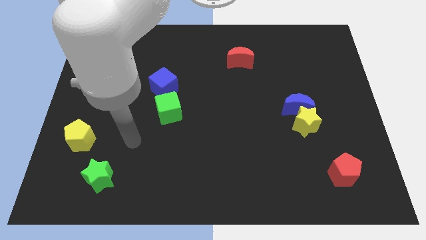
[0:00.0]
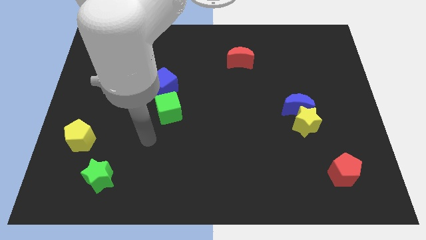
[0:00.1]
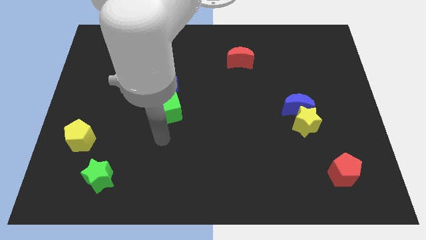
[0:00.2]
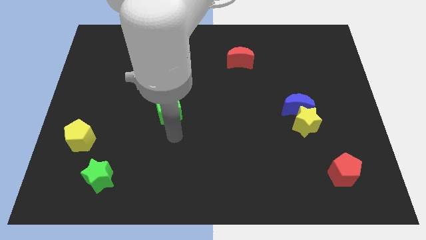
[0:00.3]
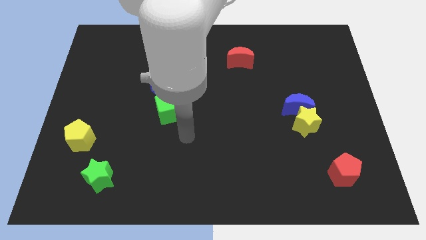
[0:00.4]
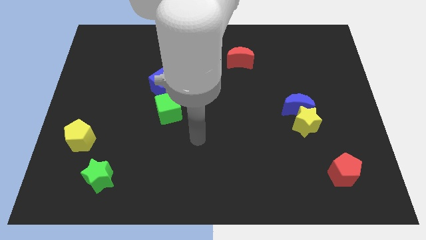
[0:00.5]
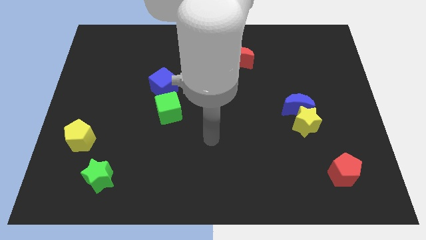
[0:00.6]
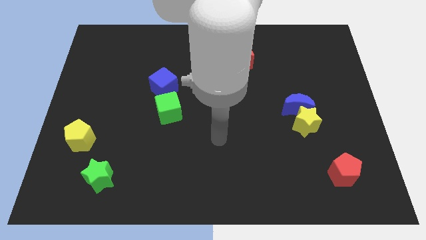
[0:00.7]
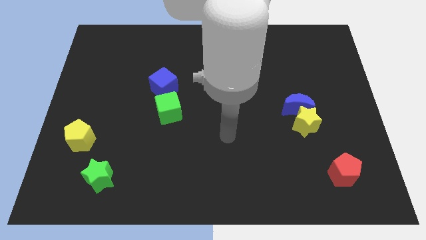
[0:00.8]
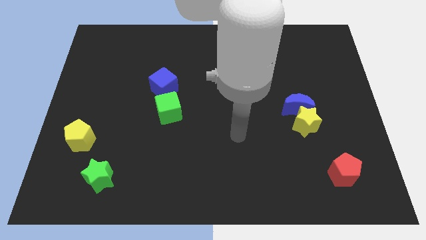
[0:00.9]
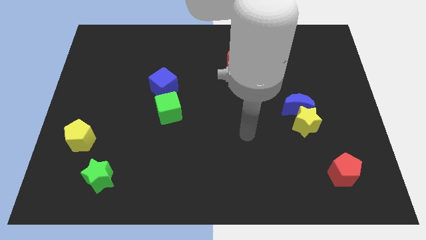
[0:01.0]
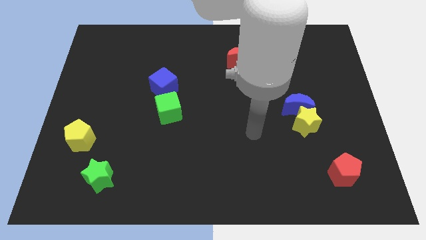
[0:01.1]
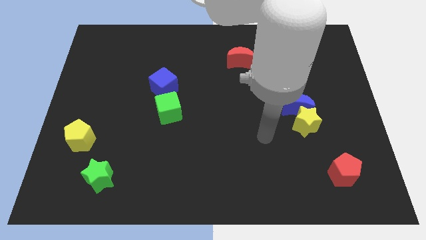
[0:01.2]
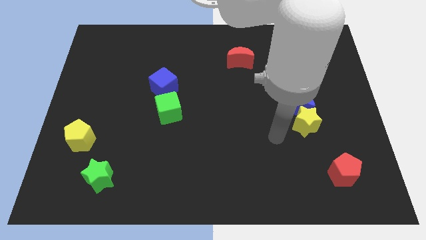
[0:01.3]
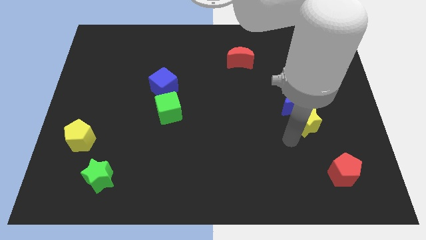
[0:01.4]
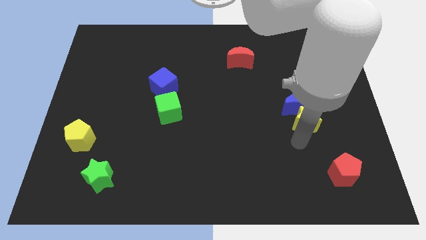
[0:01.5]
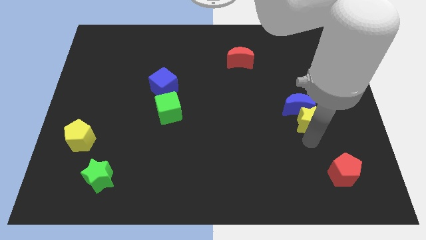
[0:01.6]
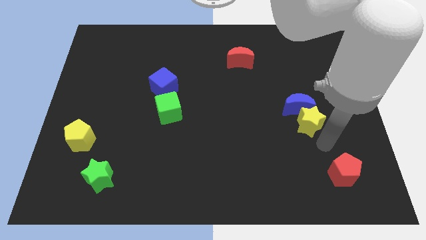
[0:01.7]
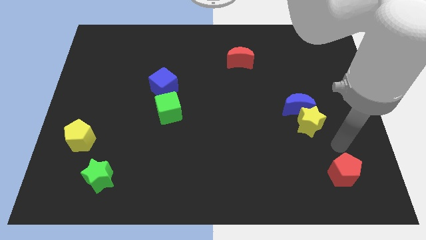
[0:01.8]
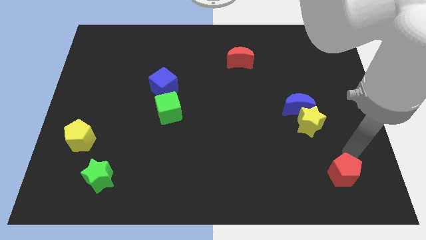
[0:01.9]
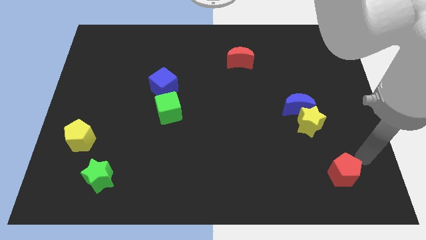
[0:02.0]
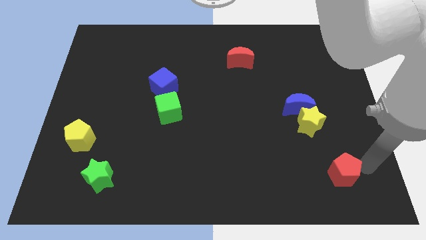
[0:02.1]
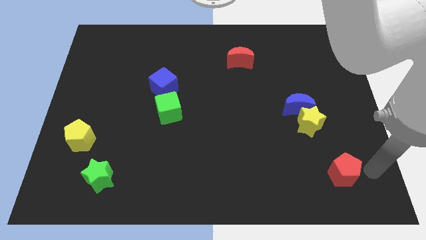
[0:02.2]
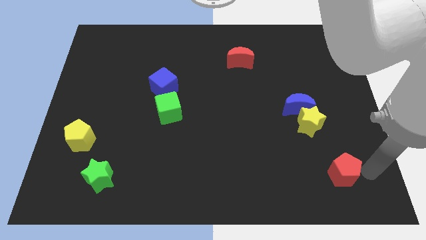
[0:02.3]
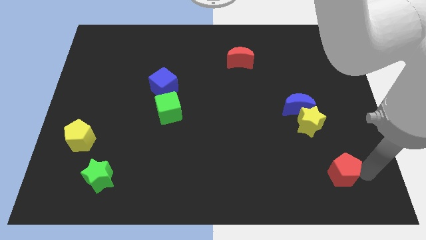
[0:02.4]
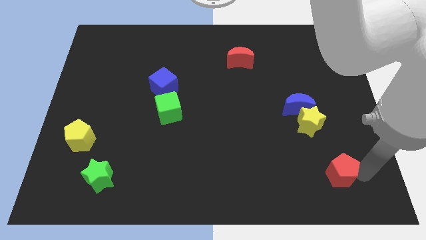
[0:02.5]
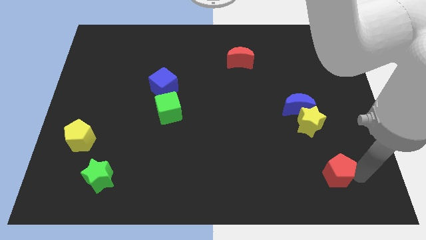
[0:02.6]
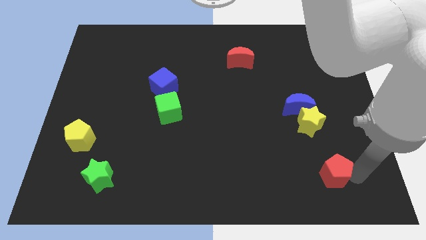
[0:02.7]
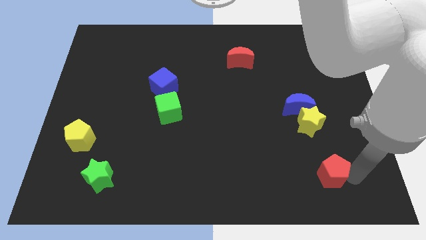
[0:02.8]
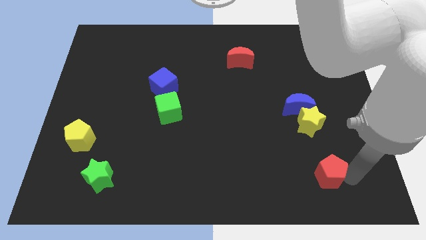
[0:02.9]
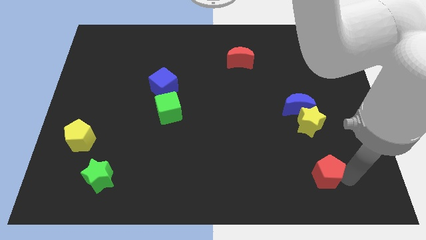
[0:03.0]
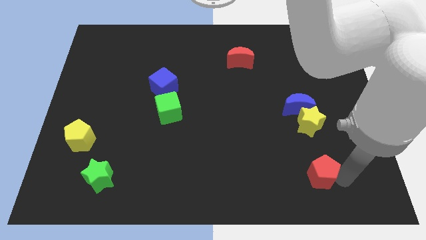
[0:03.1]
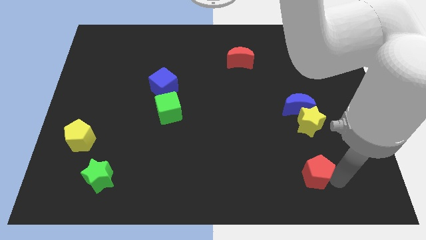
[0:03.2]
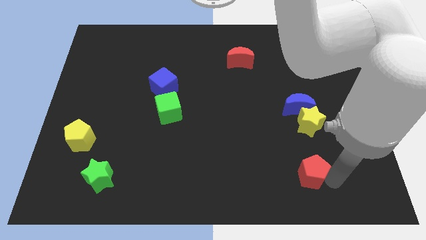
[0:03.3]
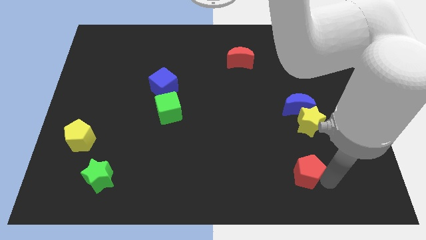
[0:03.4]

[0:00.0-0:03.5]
push the red pentagon a little to the left

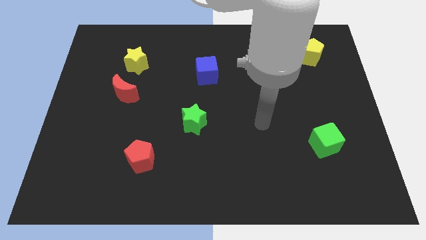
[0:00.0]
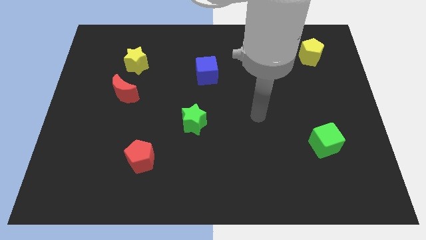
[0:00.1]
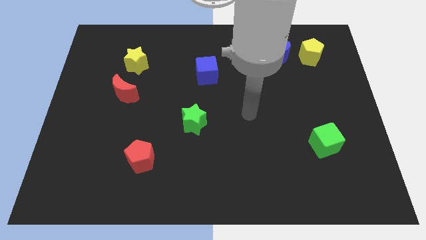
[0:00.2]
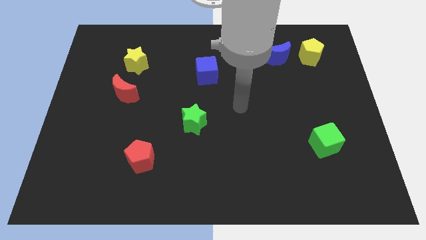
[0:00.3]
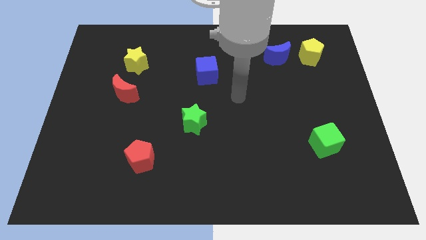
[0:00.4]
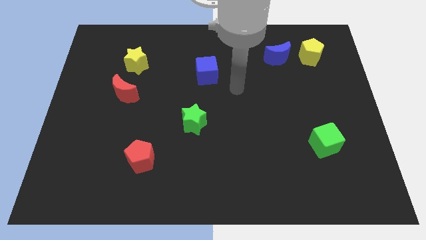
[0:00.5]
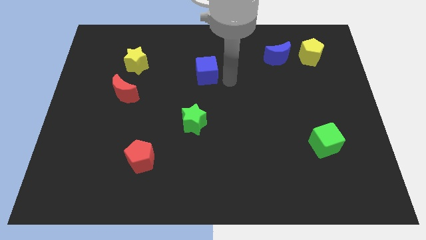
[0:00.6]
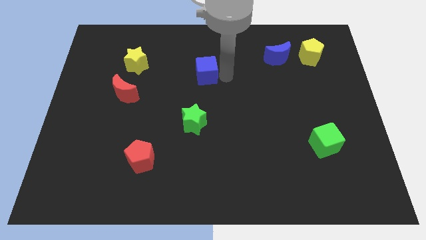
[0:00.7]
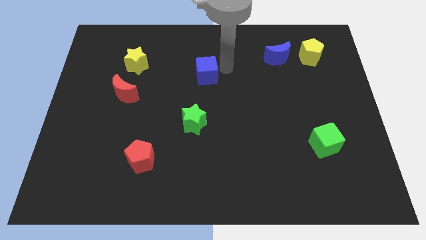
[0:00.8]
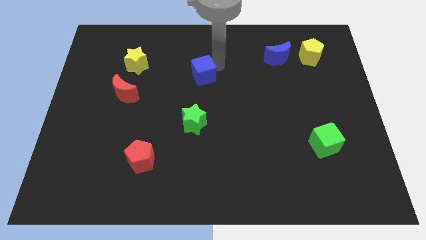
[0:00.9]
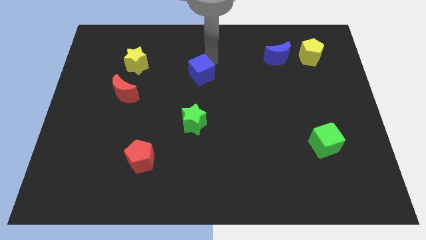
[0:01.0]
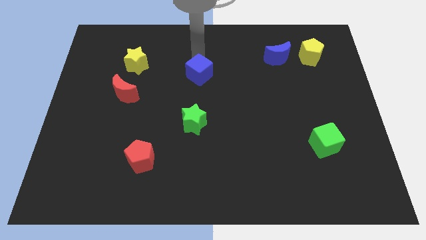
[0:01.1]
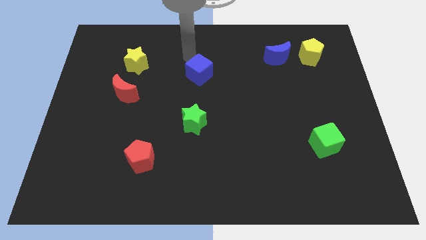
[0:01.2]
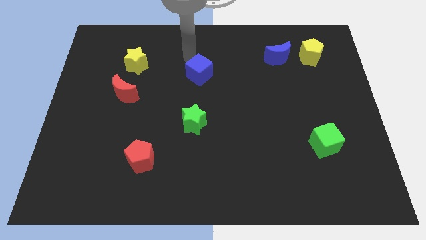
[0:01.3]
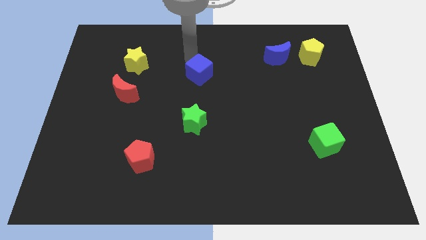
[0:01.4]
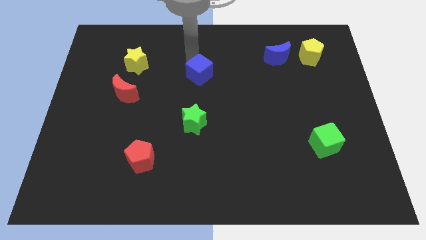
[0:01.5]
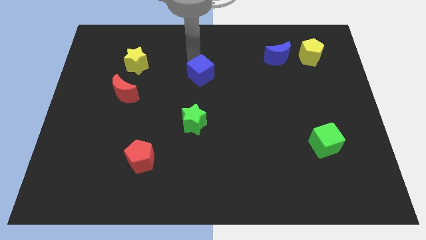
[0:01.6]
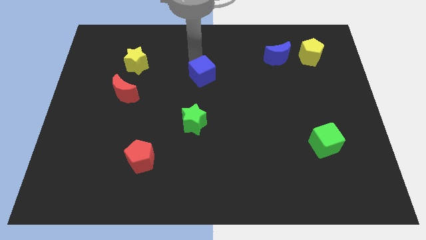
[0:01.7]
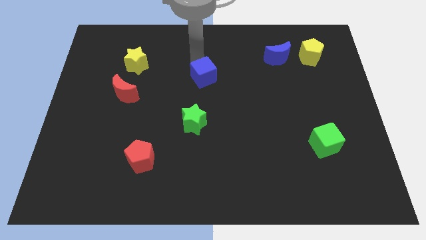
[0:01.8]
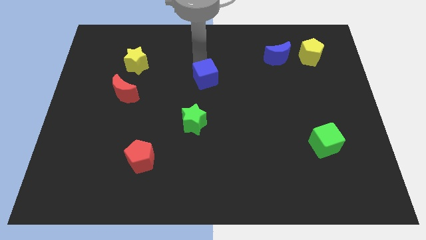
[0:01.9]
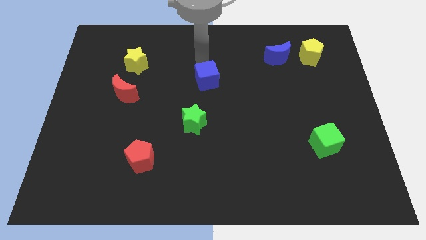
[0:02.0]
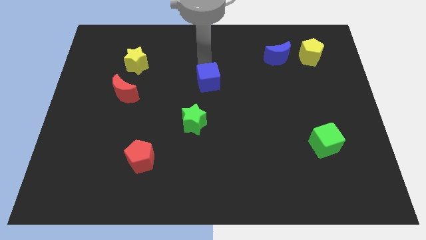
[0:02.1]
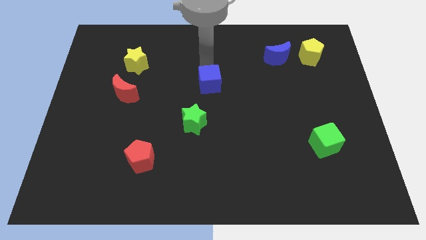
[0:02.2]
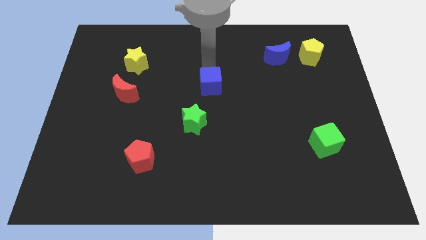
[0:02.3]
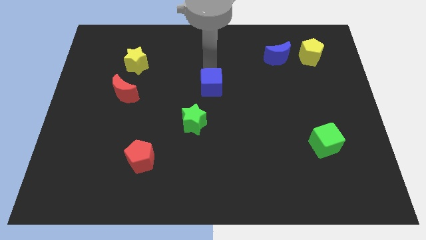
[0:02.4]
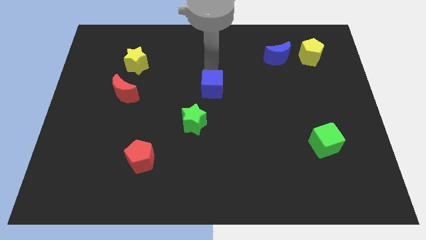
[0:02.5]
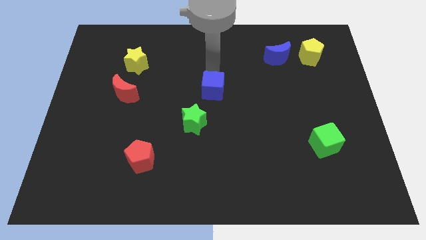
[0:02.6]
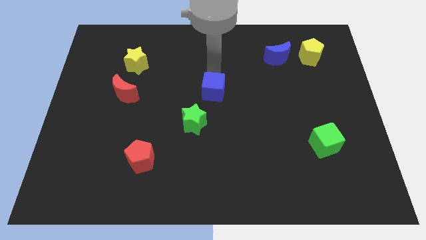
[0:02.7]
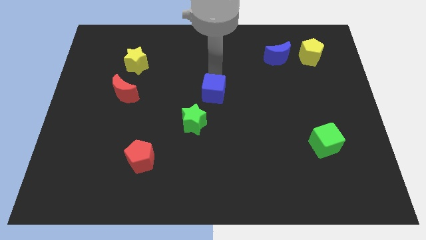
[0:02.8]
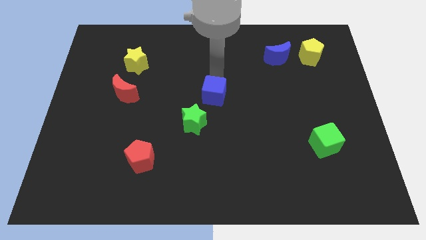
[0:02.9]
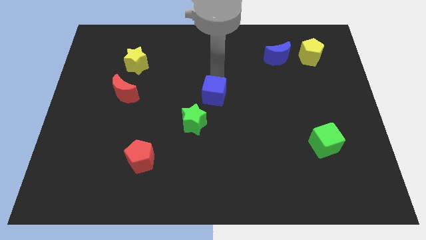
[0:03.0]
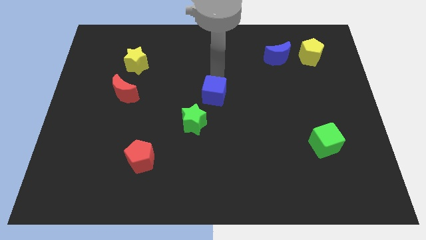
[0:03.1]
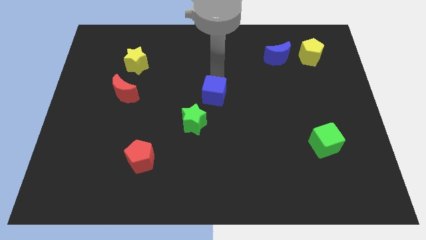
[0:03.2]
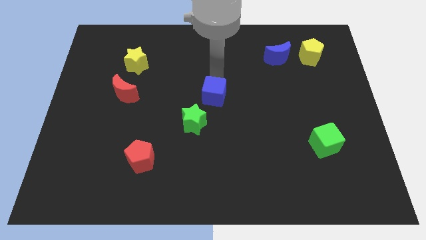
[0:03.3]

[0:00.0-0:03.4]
push the blue cube a little down

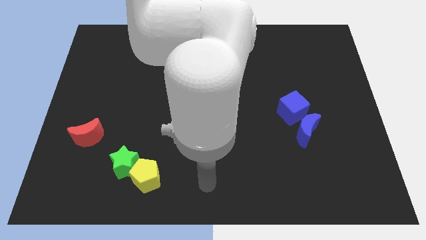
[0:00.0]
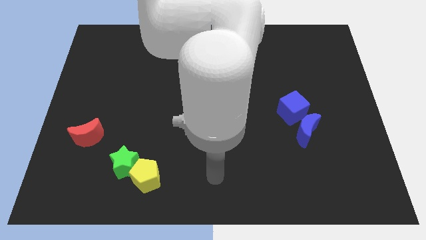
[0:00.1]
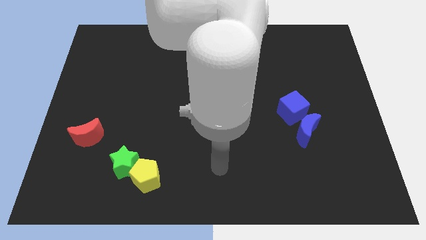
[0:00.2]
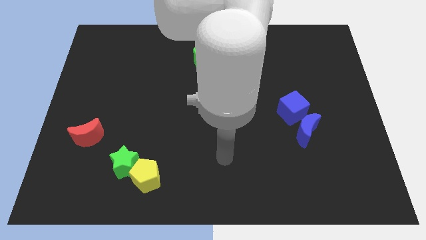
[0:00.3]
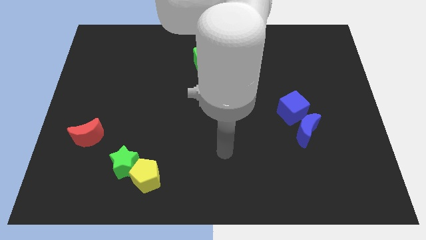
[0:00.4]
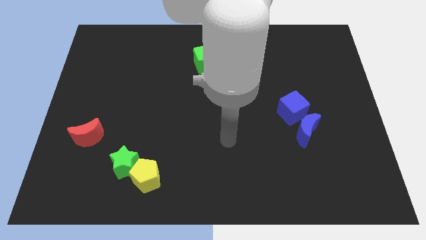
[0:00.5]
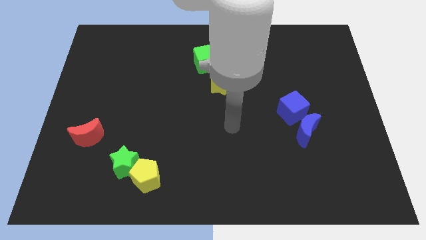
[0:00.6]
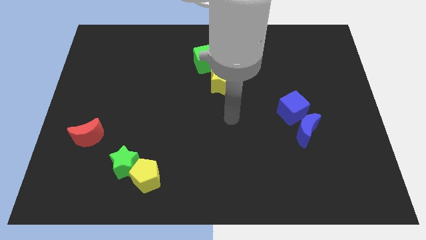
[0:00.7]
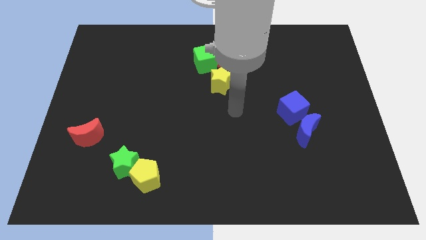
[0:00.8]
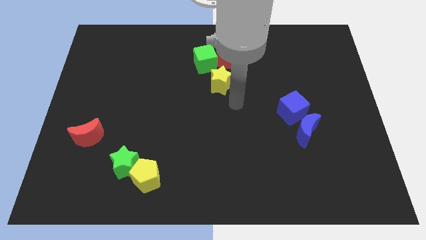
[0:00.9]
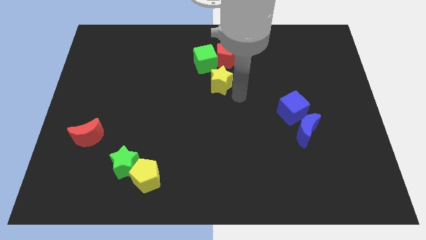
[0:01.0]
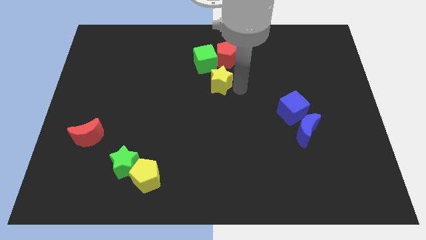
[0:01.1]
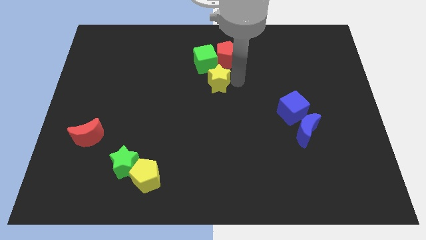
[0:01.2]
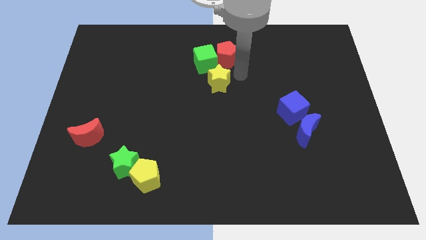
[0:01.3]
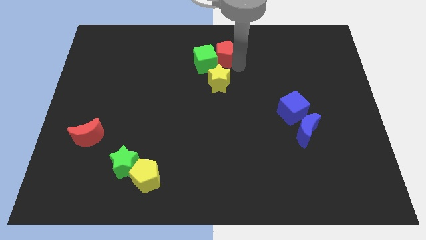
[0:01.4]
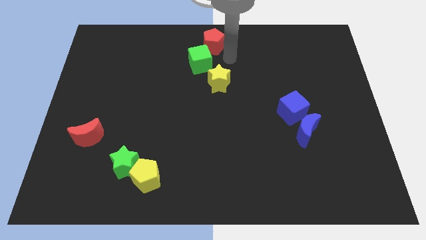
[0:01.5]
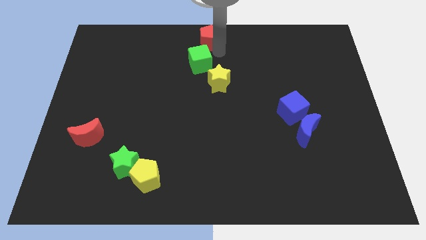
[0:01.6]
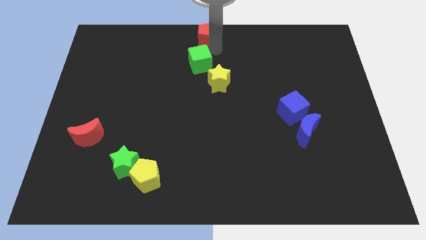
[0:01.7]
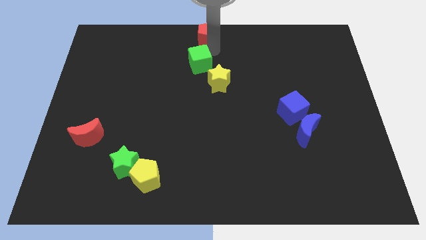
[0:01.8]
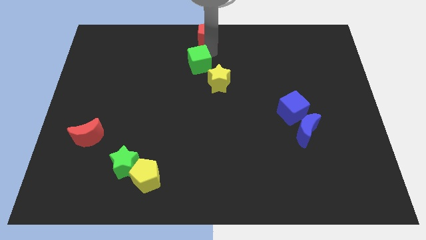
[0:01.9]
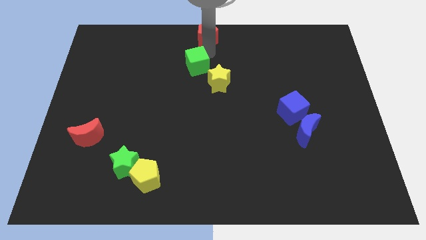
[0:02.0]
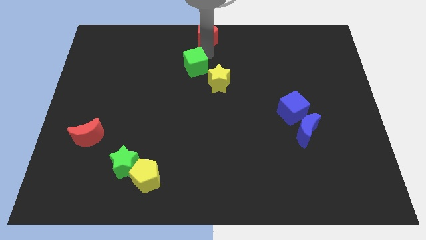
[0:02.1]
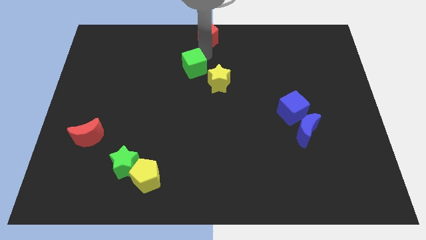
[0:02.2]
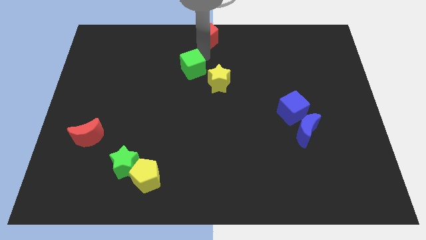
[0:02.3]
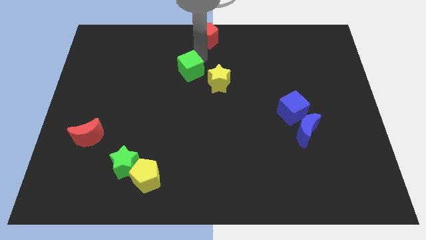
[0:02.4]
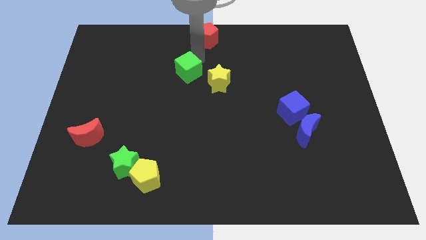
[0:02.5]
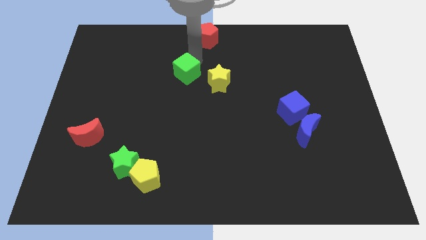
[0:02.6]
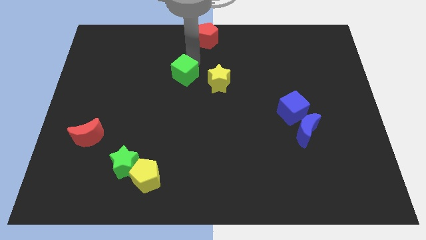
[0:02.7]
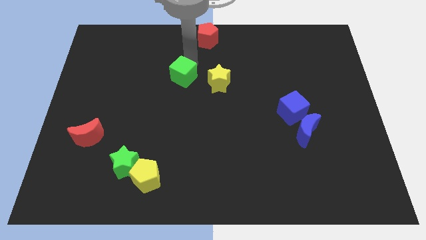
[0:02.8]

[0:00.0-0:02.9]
push the green cube somewhat diagonally down and left
